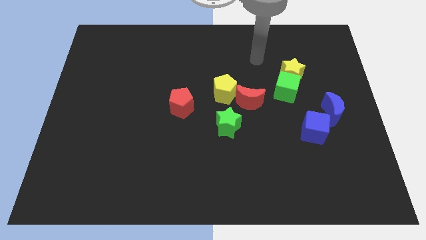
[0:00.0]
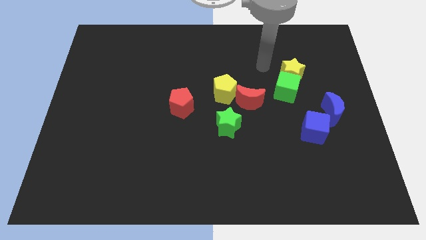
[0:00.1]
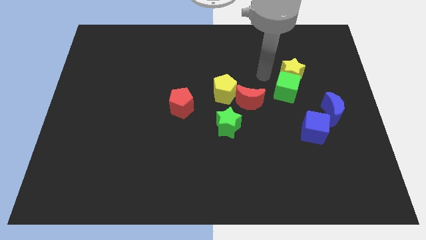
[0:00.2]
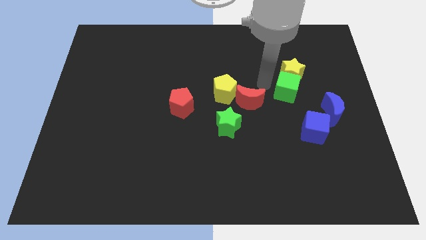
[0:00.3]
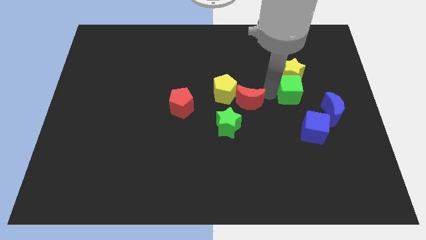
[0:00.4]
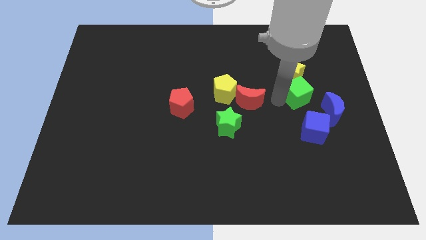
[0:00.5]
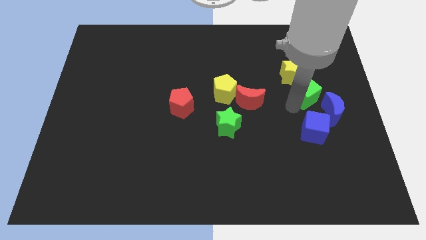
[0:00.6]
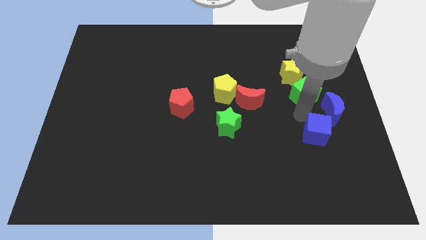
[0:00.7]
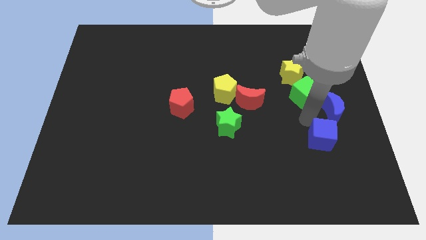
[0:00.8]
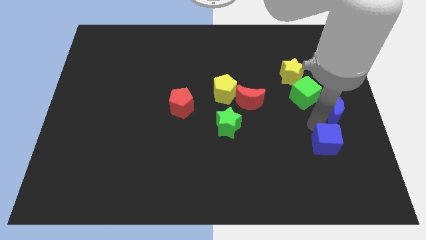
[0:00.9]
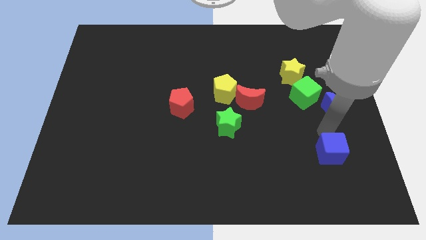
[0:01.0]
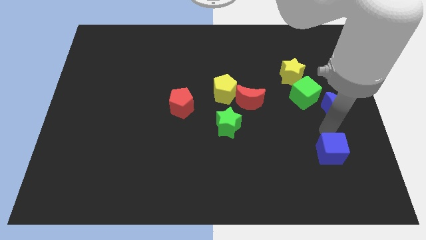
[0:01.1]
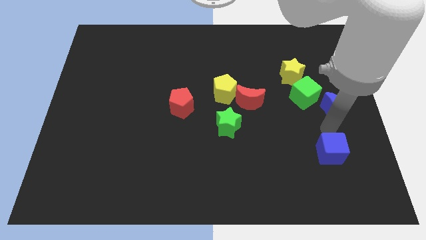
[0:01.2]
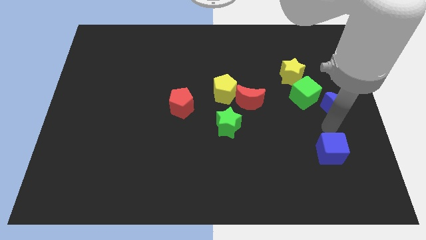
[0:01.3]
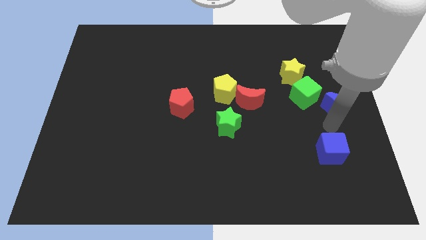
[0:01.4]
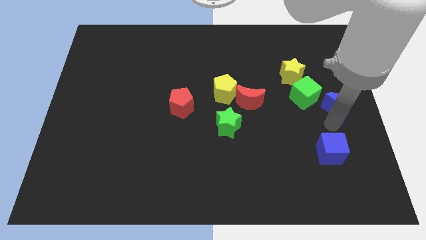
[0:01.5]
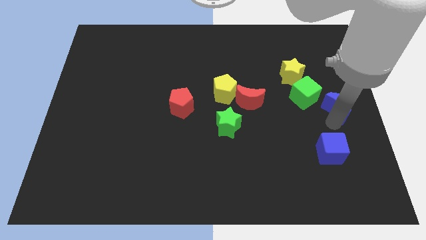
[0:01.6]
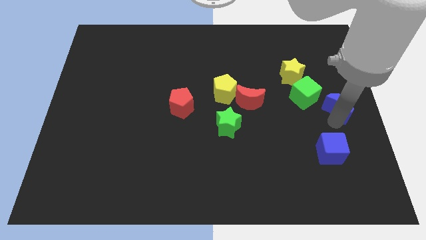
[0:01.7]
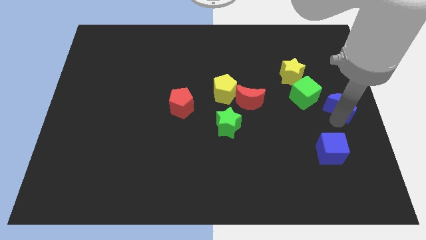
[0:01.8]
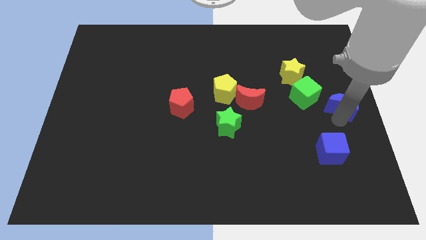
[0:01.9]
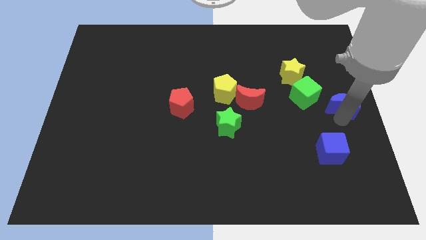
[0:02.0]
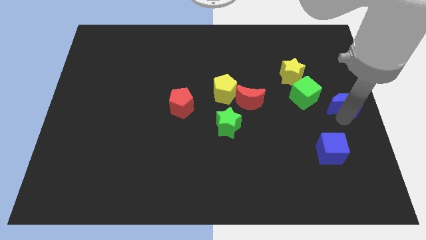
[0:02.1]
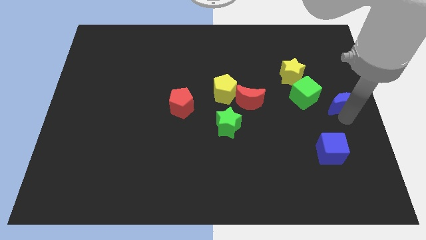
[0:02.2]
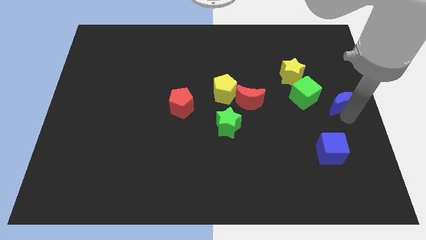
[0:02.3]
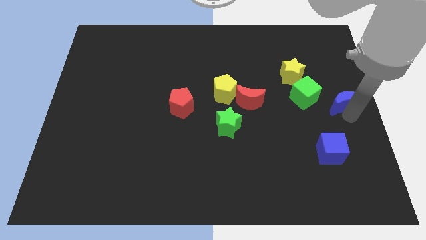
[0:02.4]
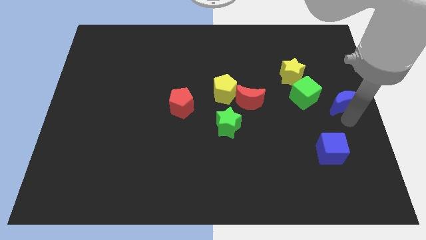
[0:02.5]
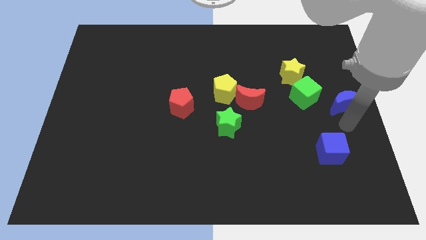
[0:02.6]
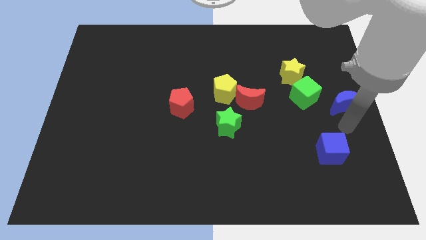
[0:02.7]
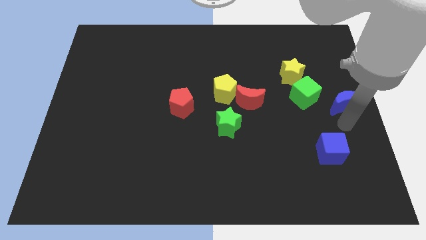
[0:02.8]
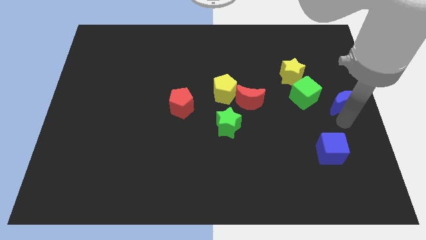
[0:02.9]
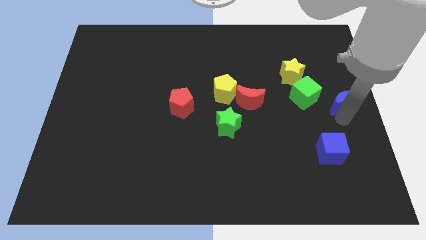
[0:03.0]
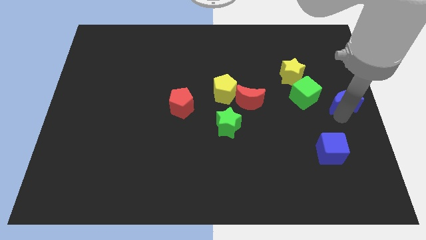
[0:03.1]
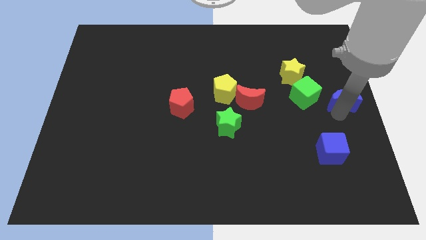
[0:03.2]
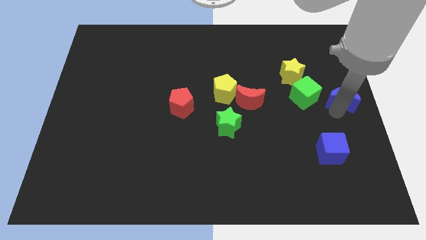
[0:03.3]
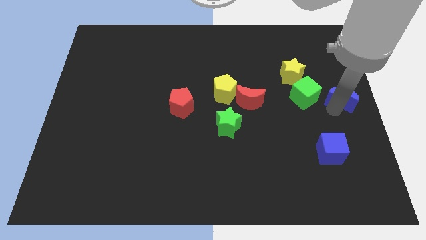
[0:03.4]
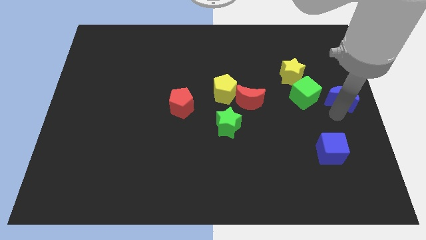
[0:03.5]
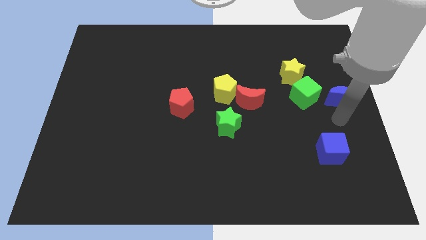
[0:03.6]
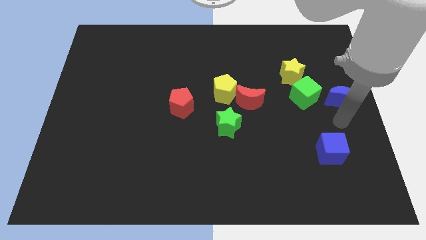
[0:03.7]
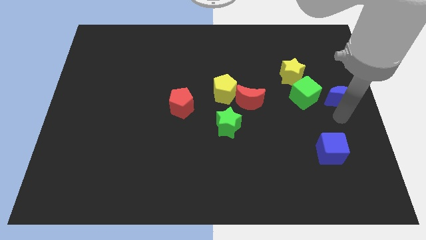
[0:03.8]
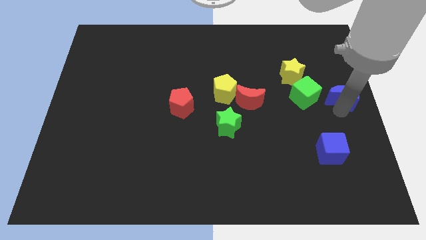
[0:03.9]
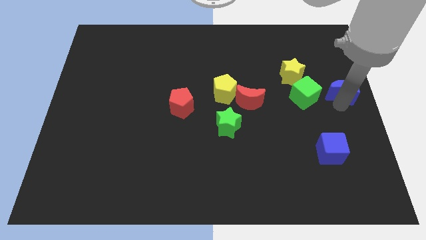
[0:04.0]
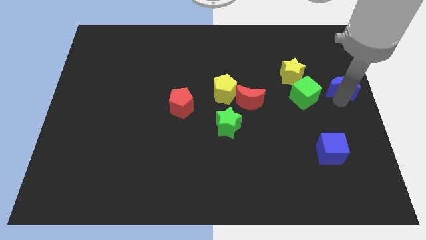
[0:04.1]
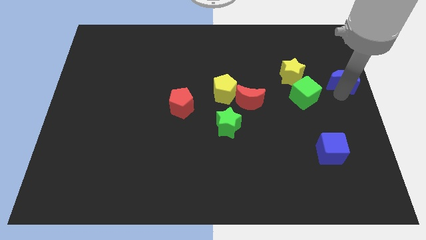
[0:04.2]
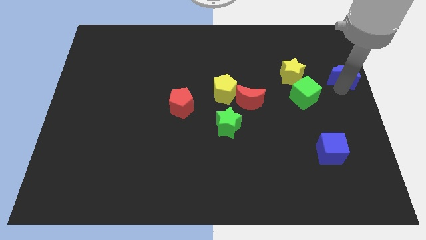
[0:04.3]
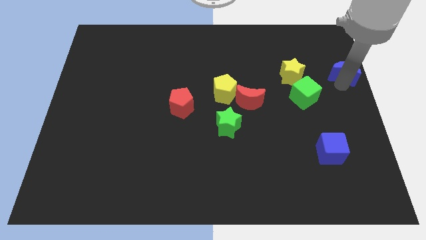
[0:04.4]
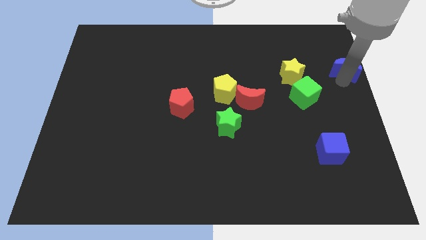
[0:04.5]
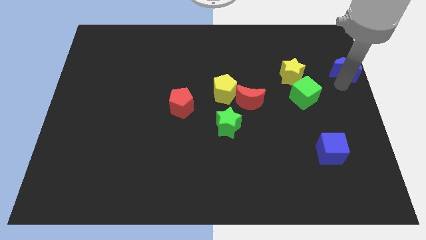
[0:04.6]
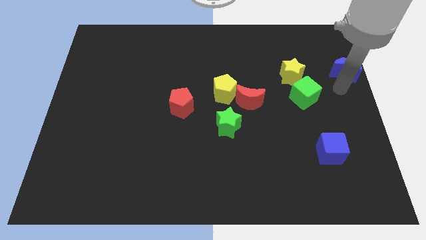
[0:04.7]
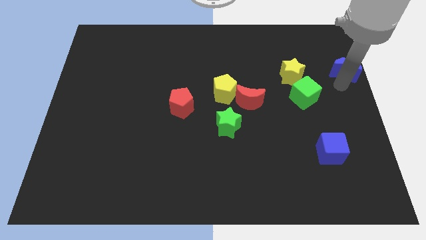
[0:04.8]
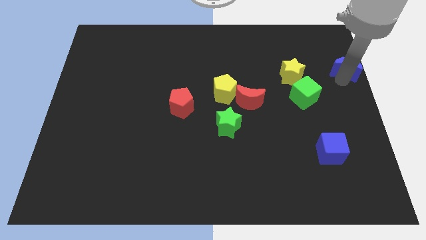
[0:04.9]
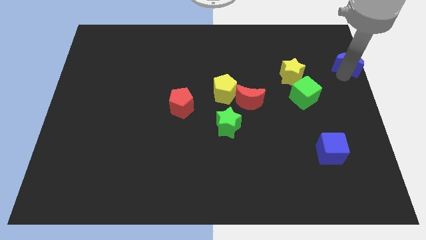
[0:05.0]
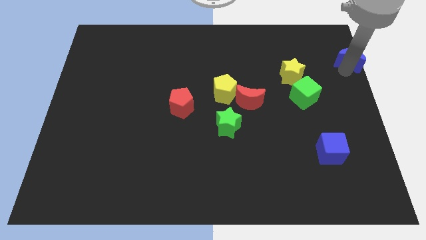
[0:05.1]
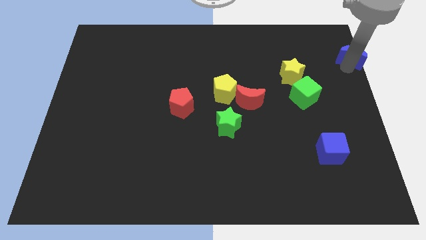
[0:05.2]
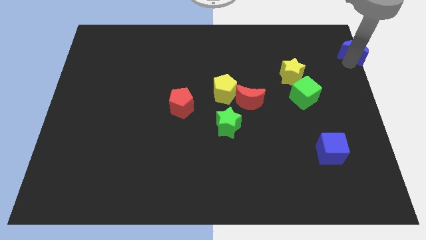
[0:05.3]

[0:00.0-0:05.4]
push the blue moon to the upper right corner
